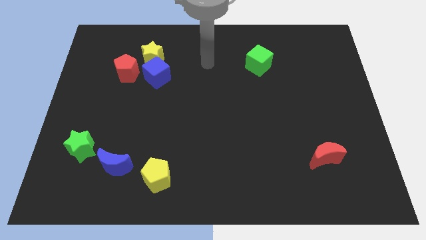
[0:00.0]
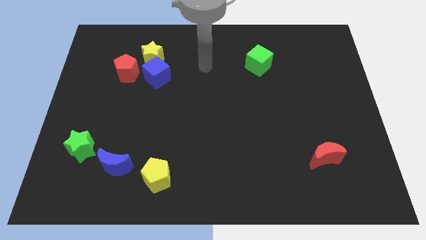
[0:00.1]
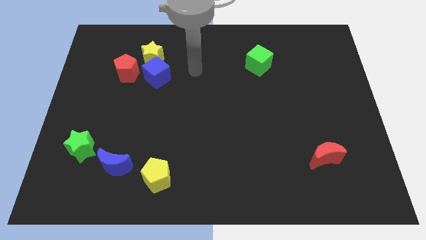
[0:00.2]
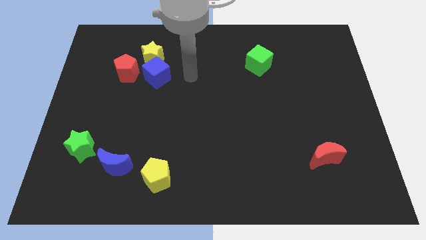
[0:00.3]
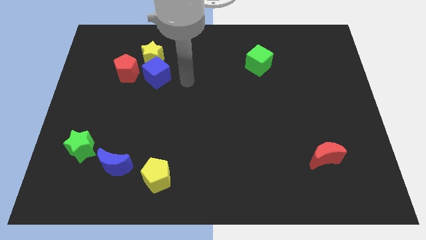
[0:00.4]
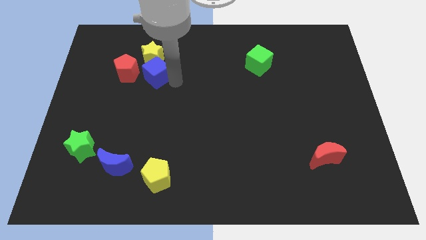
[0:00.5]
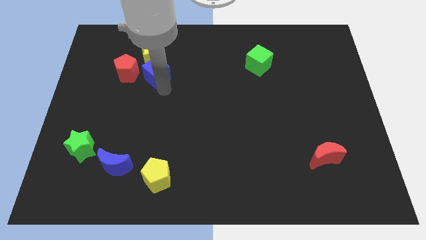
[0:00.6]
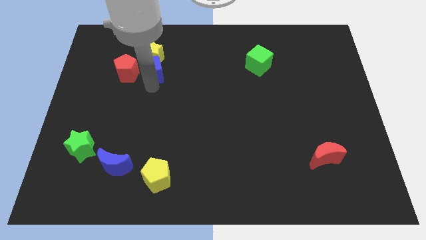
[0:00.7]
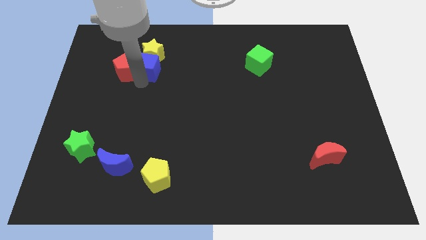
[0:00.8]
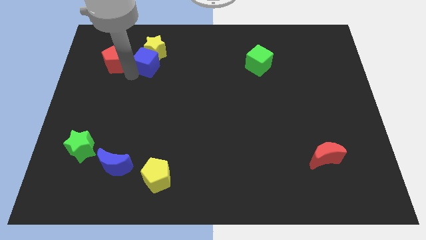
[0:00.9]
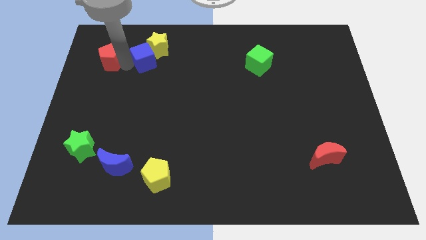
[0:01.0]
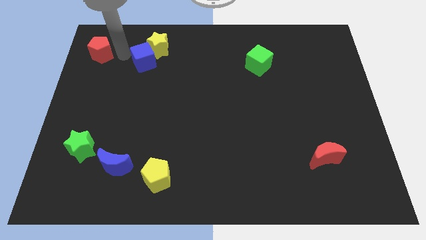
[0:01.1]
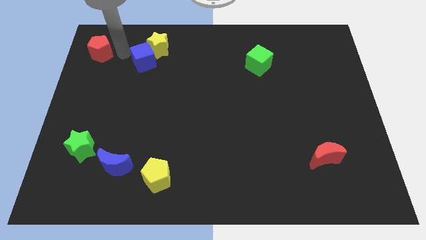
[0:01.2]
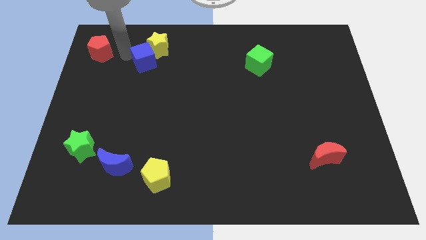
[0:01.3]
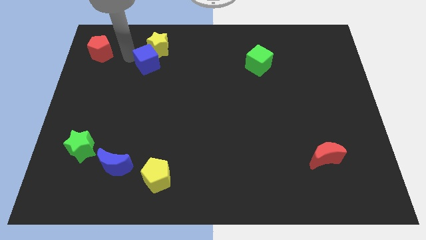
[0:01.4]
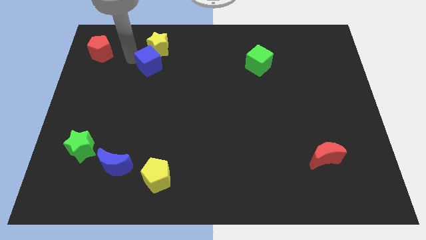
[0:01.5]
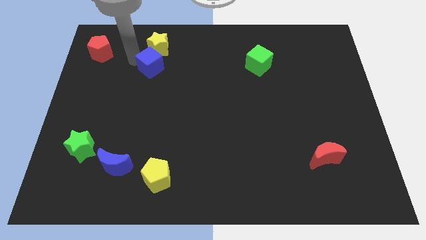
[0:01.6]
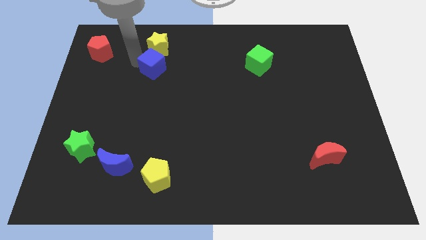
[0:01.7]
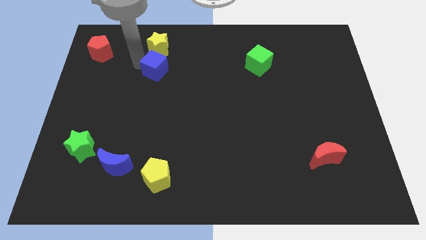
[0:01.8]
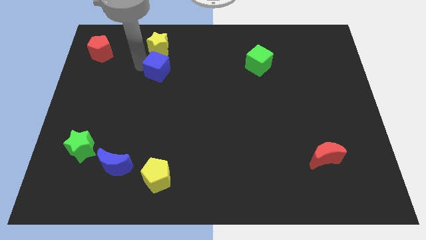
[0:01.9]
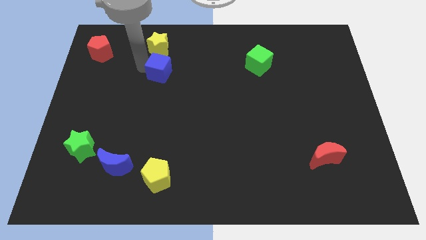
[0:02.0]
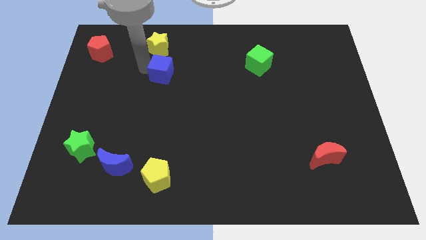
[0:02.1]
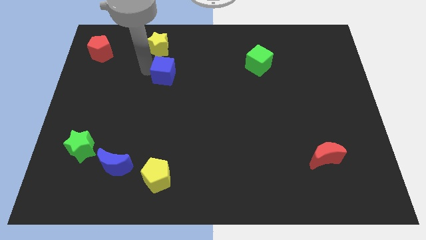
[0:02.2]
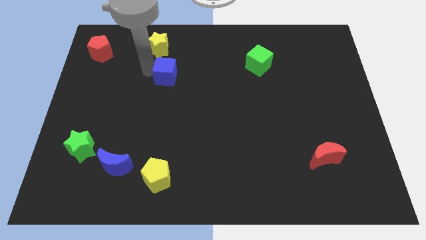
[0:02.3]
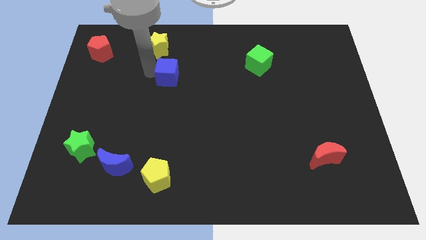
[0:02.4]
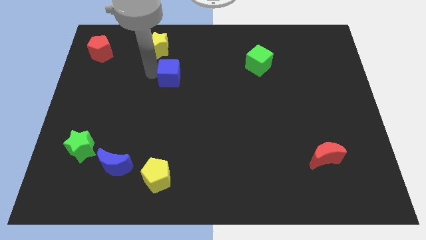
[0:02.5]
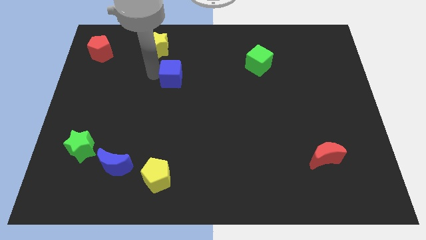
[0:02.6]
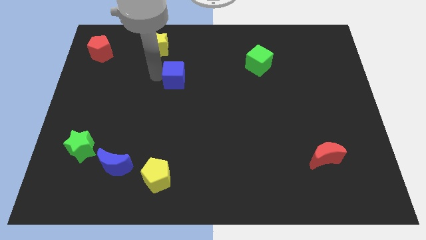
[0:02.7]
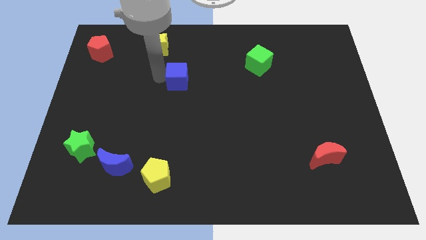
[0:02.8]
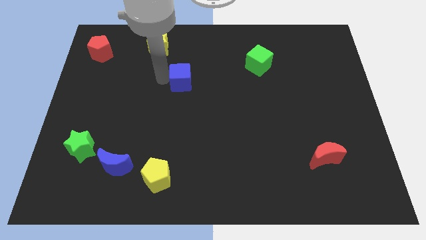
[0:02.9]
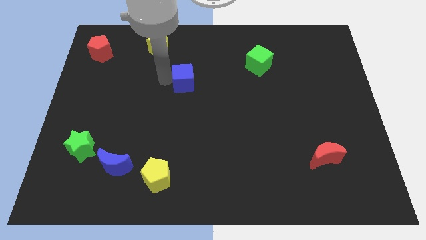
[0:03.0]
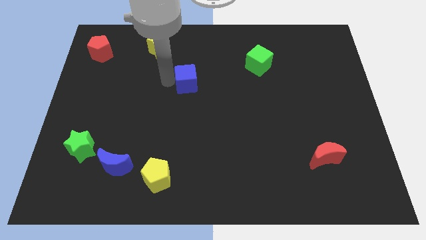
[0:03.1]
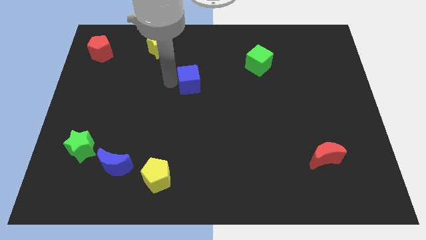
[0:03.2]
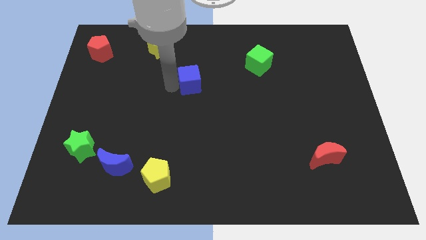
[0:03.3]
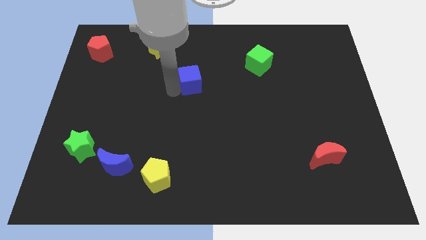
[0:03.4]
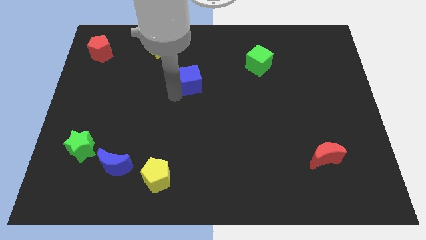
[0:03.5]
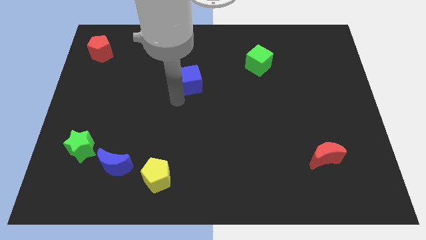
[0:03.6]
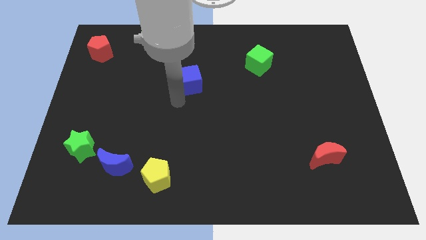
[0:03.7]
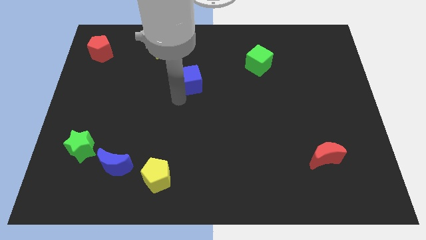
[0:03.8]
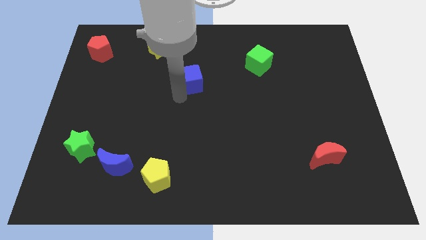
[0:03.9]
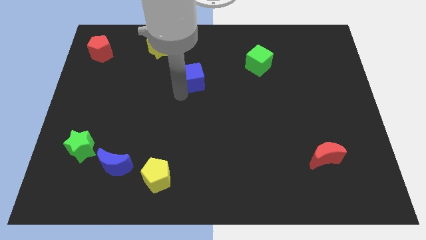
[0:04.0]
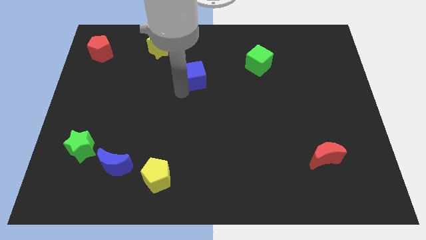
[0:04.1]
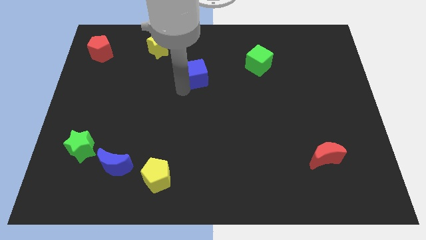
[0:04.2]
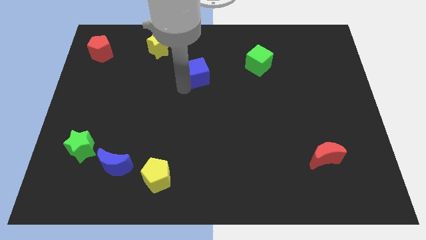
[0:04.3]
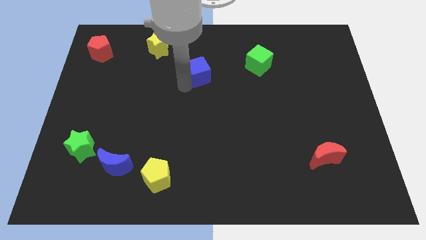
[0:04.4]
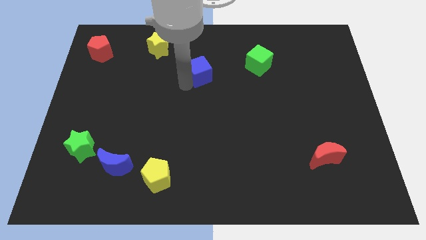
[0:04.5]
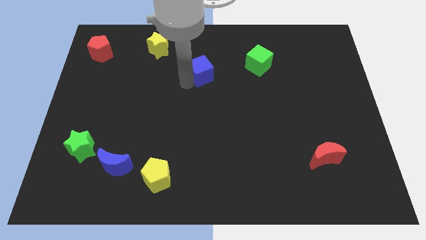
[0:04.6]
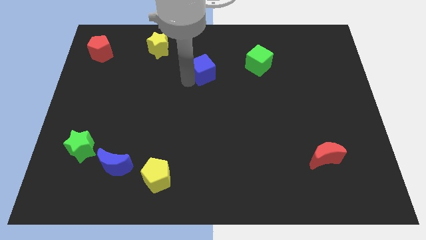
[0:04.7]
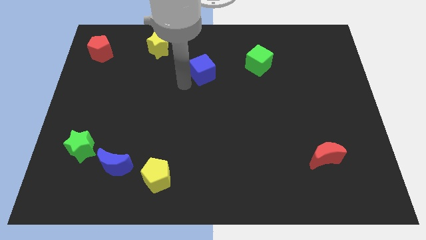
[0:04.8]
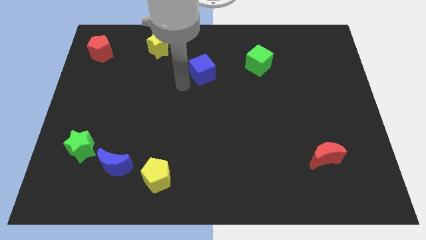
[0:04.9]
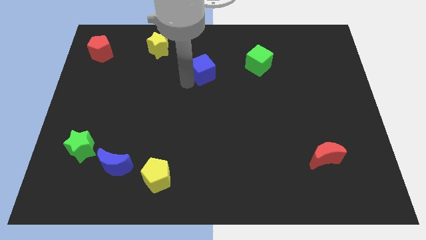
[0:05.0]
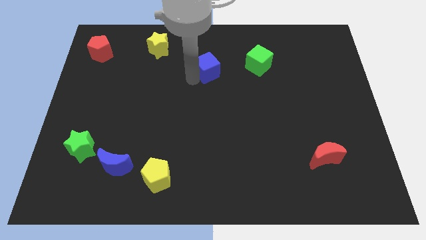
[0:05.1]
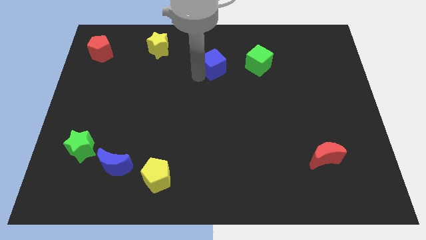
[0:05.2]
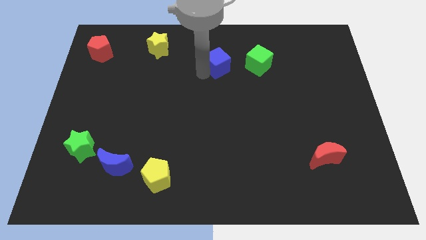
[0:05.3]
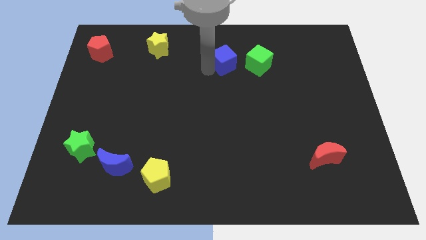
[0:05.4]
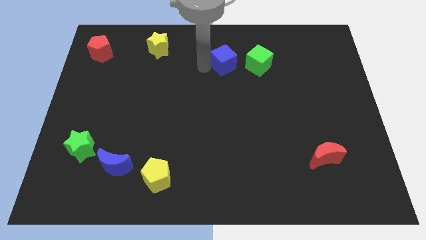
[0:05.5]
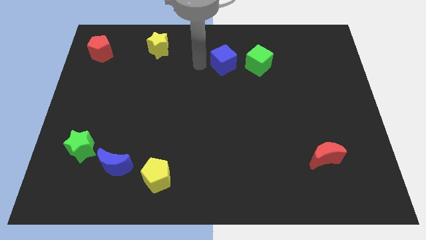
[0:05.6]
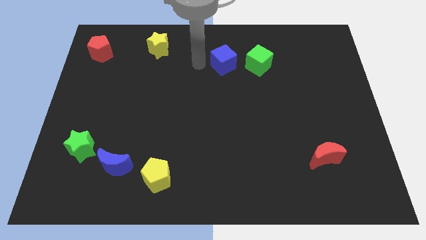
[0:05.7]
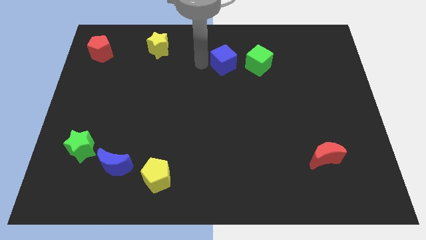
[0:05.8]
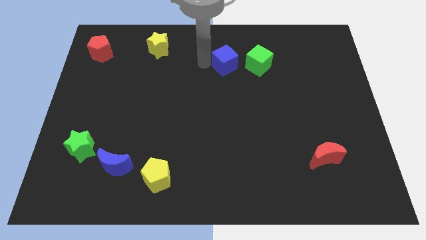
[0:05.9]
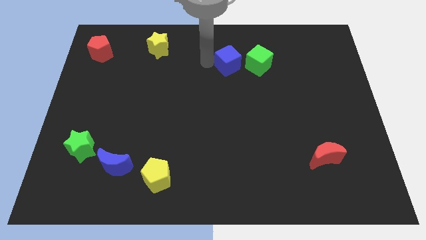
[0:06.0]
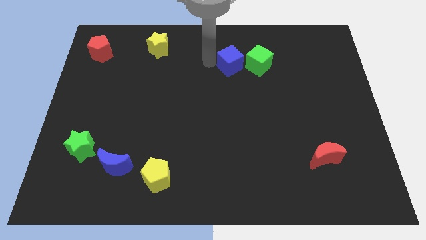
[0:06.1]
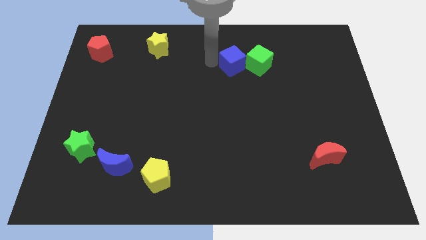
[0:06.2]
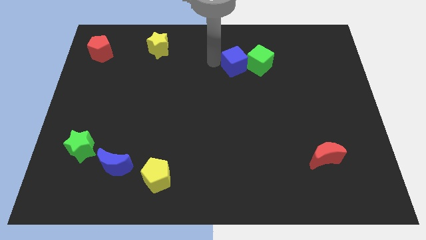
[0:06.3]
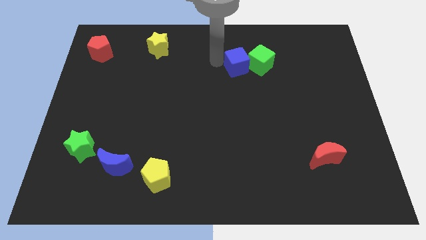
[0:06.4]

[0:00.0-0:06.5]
move the blue cube to the green cube

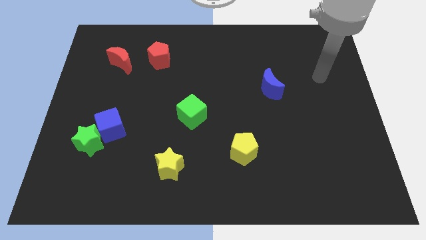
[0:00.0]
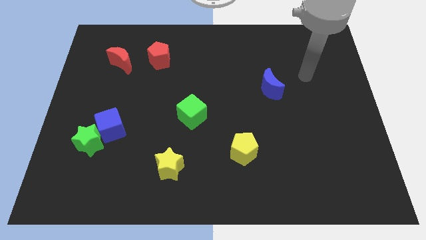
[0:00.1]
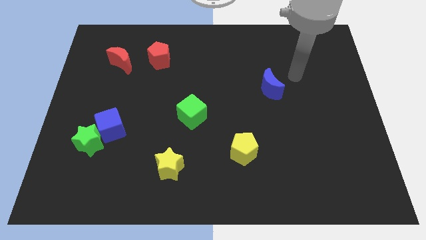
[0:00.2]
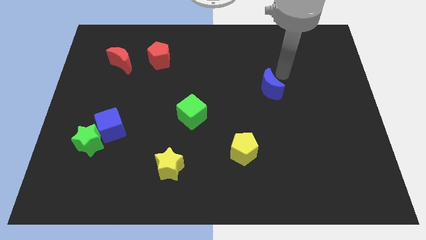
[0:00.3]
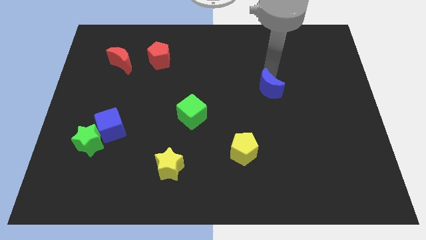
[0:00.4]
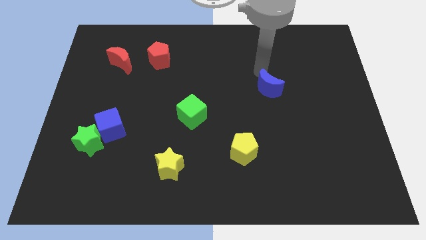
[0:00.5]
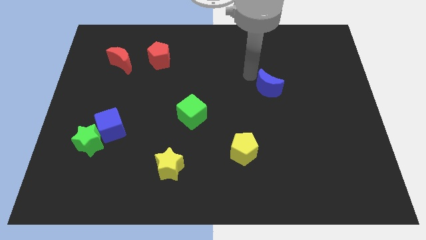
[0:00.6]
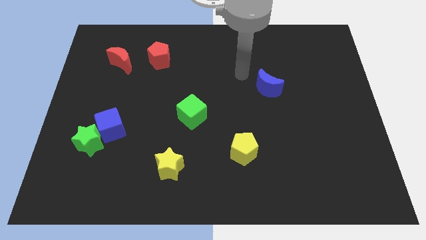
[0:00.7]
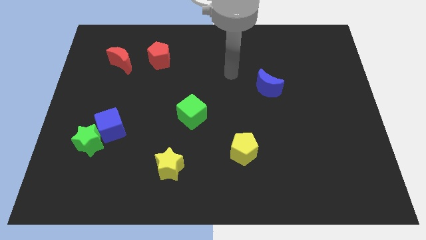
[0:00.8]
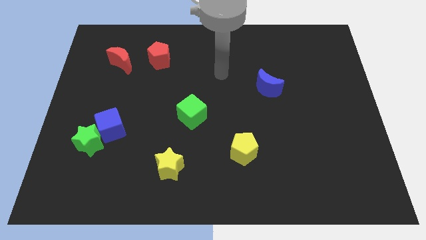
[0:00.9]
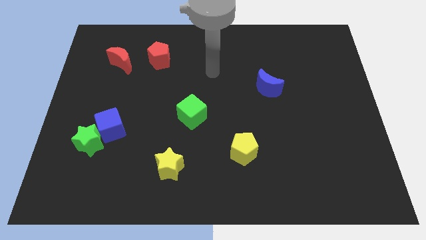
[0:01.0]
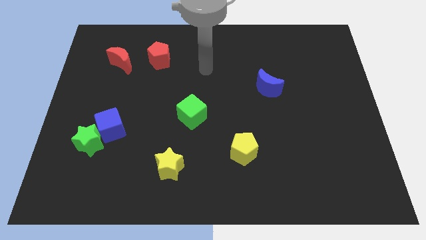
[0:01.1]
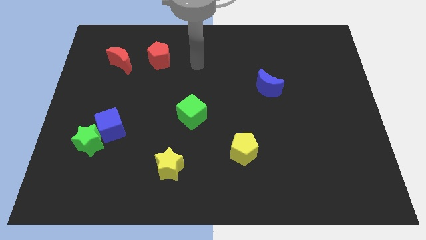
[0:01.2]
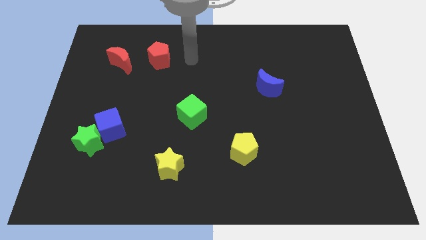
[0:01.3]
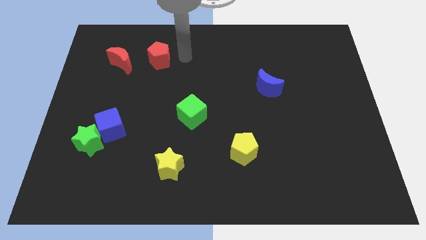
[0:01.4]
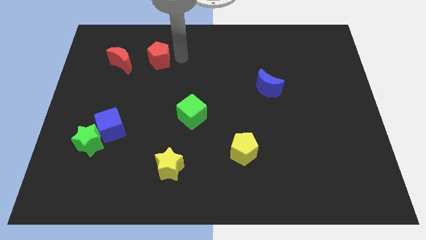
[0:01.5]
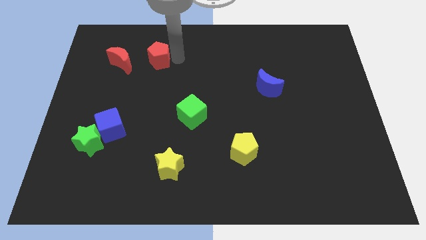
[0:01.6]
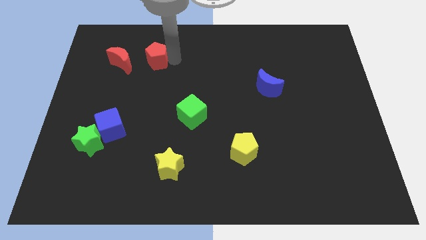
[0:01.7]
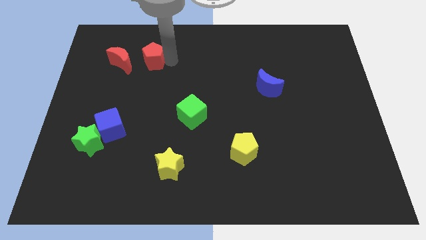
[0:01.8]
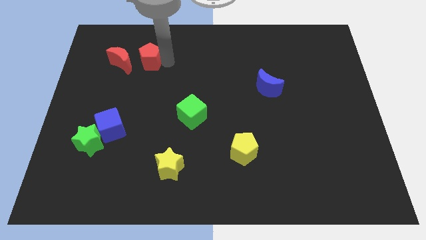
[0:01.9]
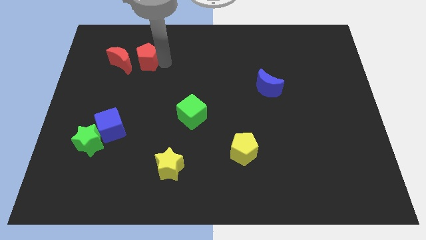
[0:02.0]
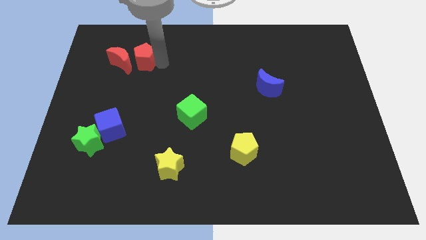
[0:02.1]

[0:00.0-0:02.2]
put the red pentagon towards the red moon
